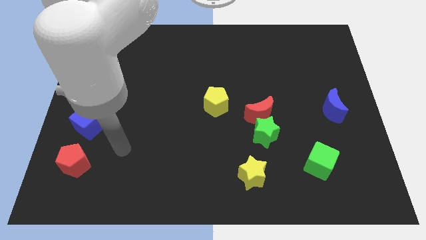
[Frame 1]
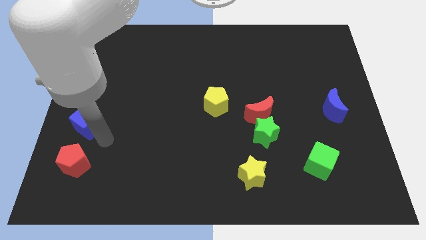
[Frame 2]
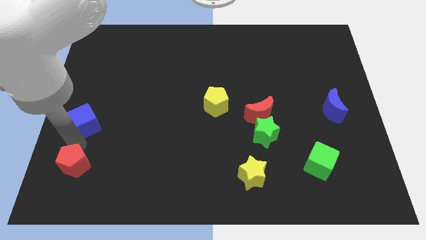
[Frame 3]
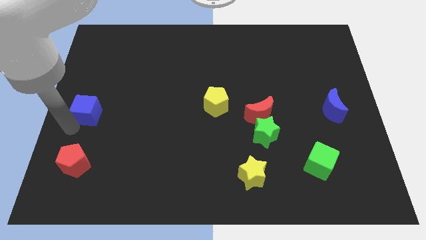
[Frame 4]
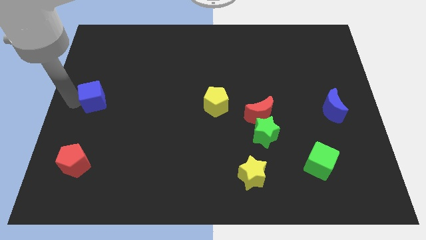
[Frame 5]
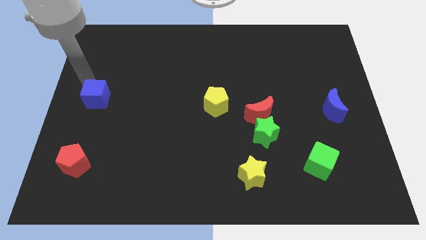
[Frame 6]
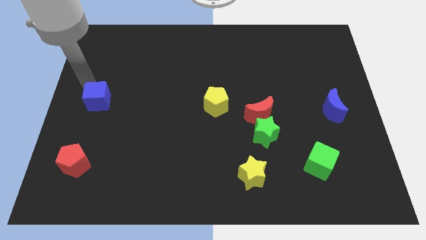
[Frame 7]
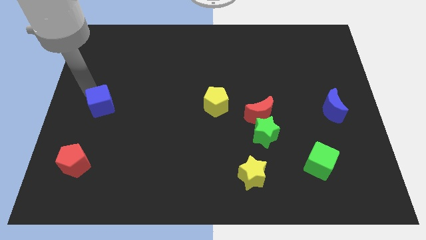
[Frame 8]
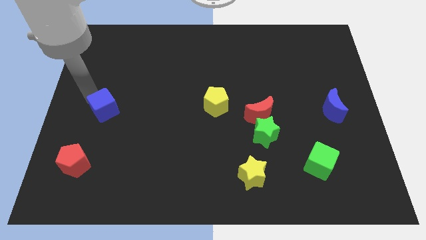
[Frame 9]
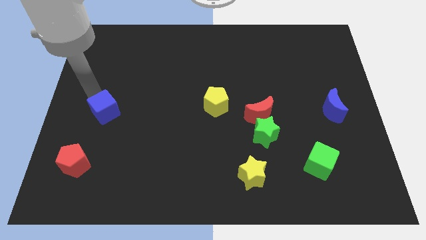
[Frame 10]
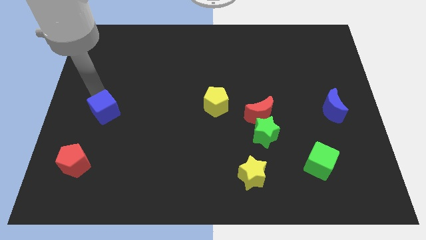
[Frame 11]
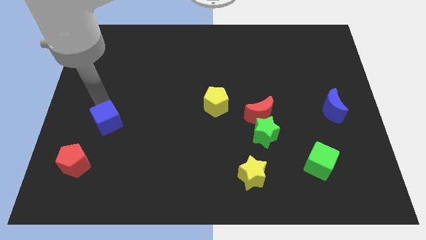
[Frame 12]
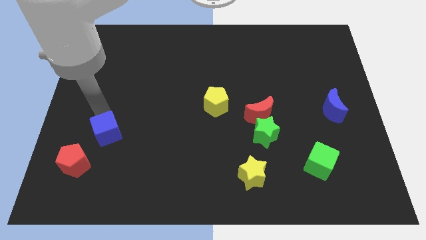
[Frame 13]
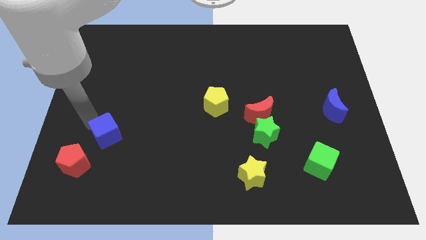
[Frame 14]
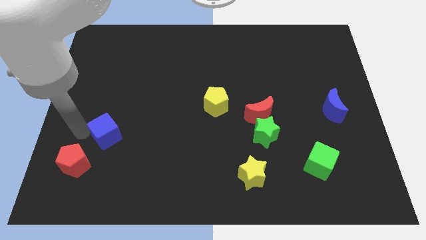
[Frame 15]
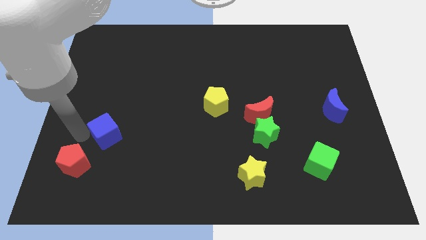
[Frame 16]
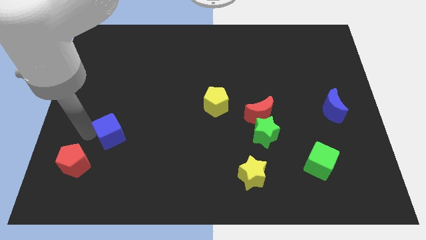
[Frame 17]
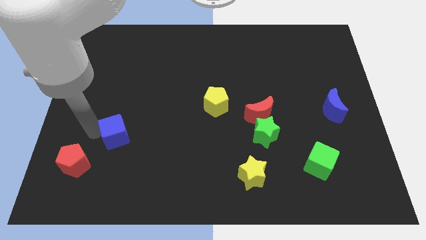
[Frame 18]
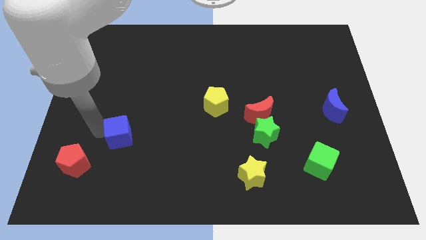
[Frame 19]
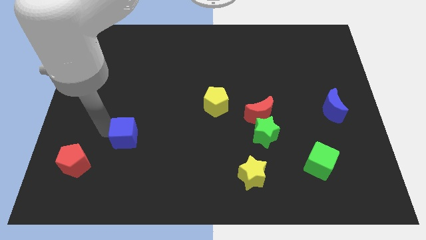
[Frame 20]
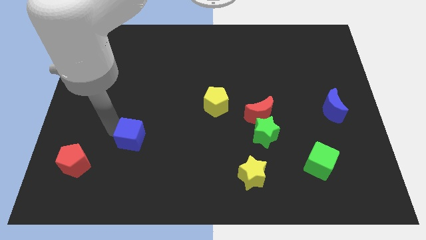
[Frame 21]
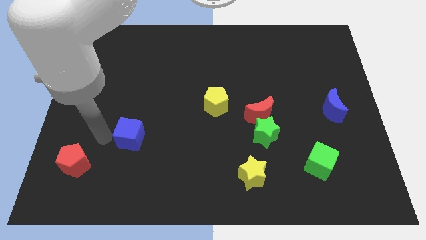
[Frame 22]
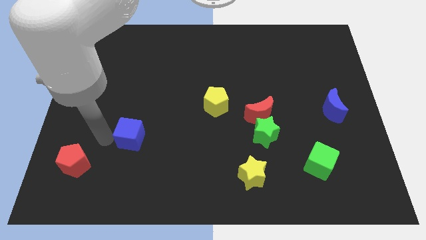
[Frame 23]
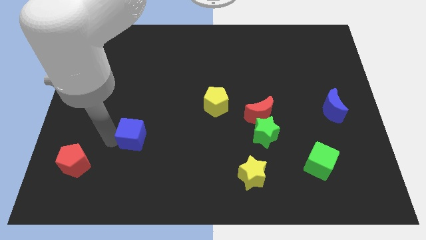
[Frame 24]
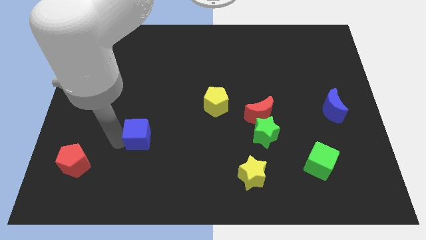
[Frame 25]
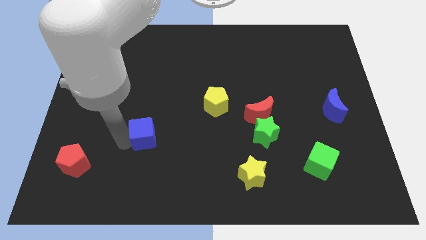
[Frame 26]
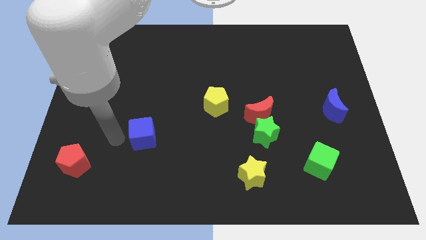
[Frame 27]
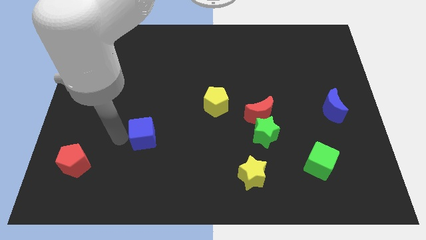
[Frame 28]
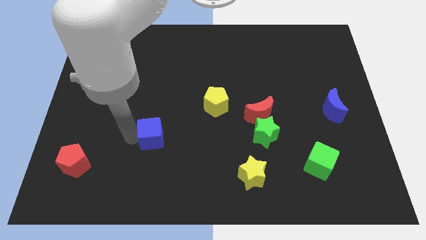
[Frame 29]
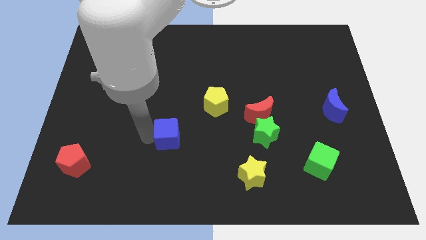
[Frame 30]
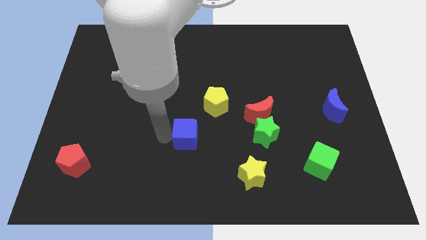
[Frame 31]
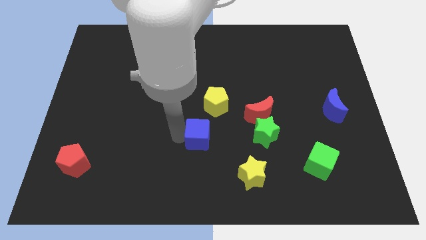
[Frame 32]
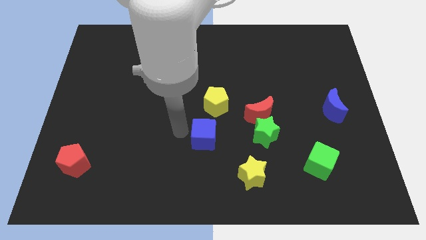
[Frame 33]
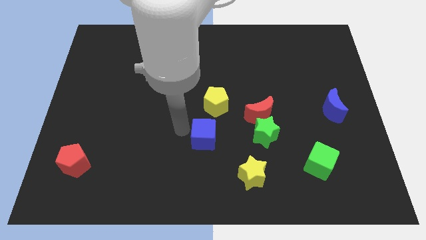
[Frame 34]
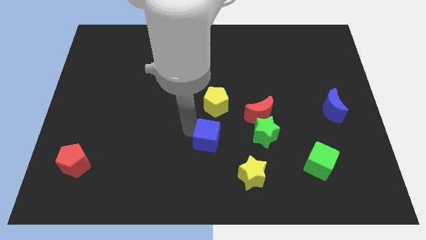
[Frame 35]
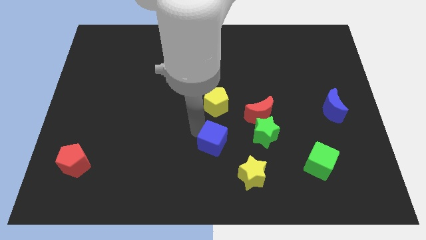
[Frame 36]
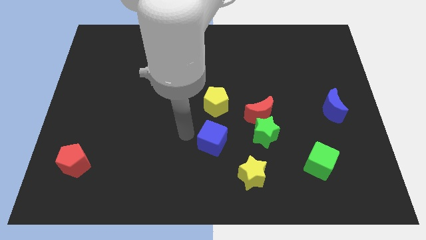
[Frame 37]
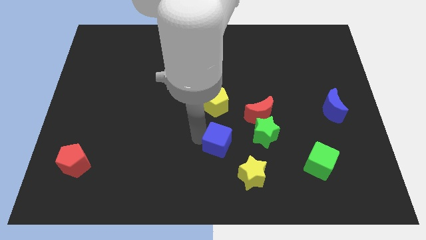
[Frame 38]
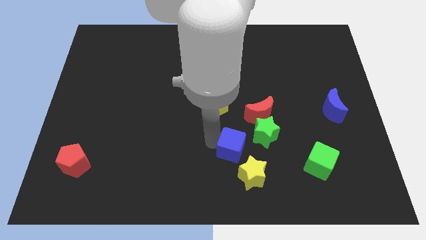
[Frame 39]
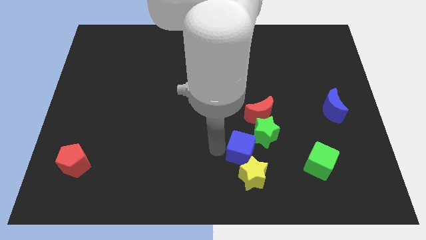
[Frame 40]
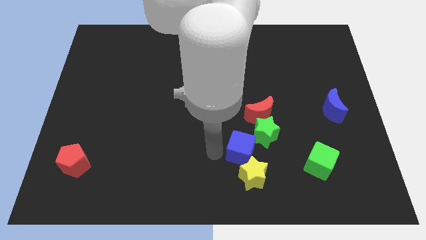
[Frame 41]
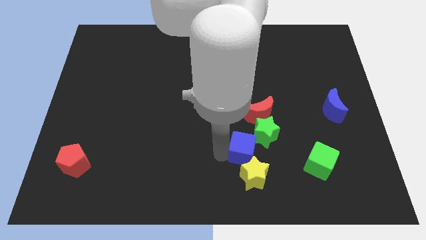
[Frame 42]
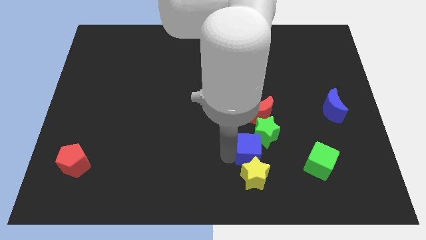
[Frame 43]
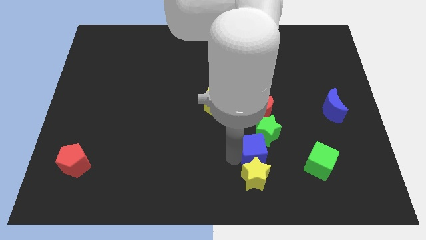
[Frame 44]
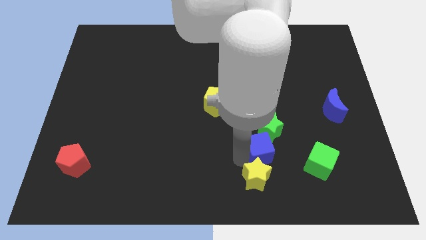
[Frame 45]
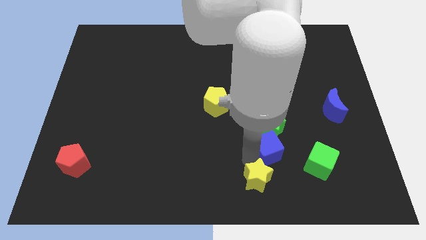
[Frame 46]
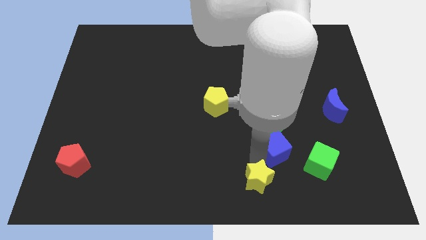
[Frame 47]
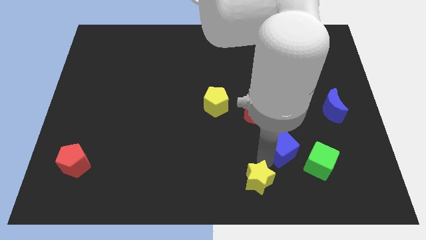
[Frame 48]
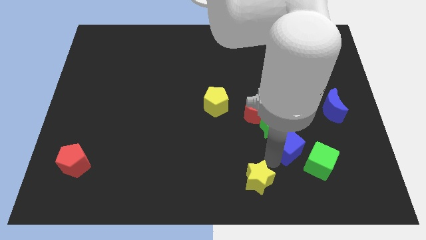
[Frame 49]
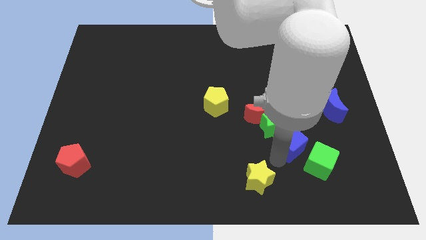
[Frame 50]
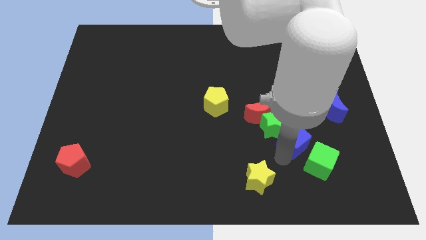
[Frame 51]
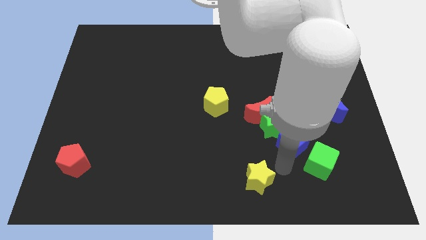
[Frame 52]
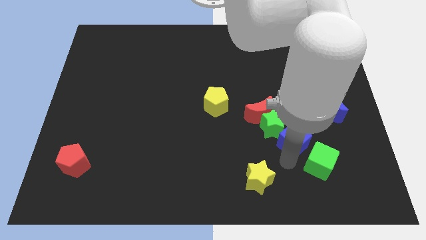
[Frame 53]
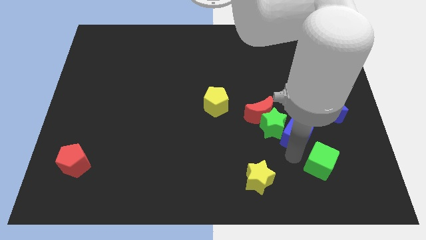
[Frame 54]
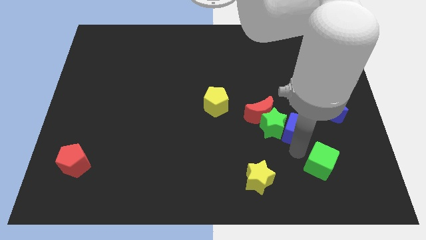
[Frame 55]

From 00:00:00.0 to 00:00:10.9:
push the blue cube to the right side of the red moon

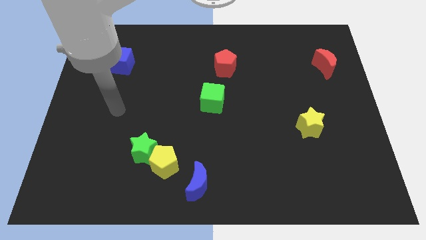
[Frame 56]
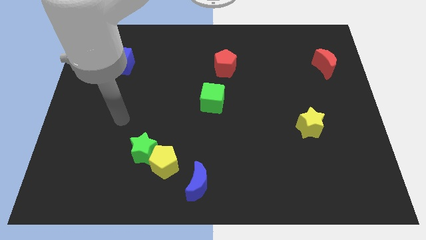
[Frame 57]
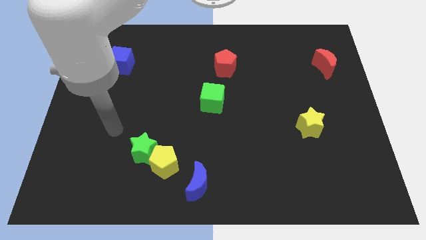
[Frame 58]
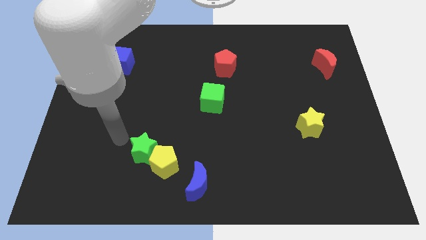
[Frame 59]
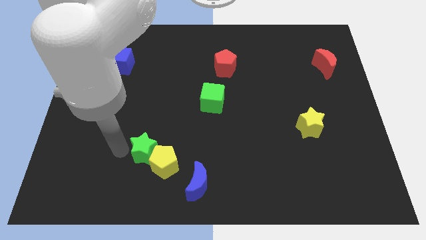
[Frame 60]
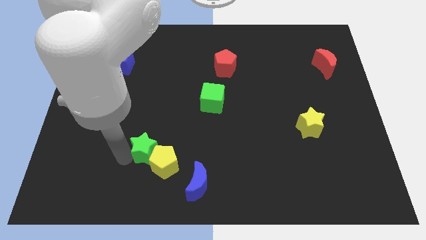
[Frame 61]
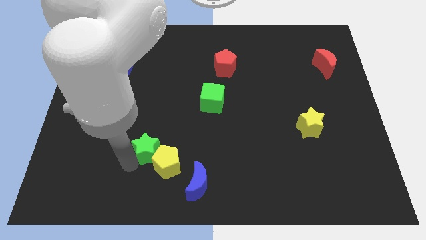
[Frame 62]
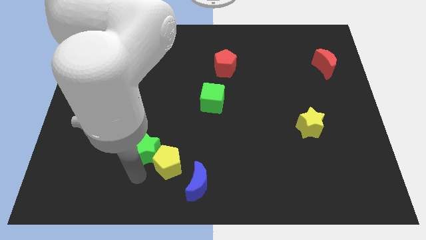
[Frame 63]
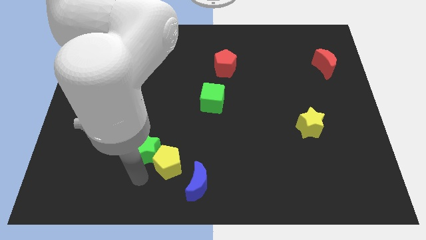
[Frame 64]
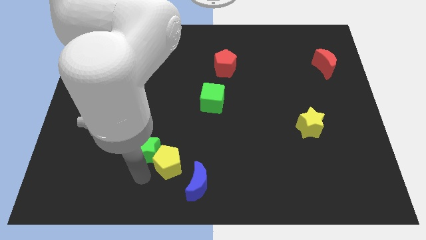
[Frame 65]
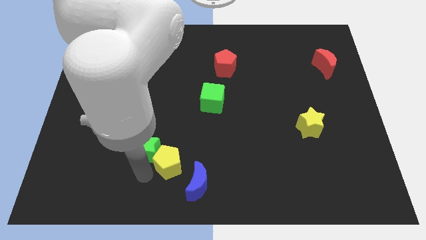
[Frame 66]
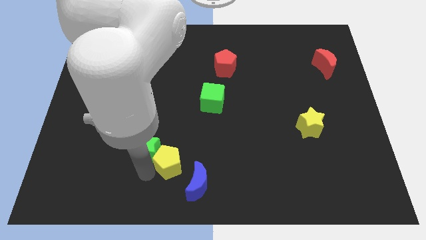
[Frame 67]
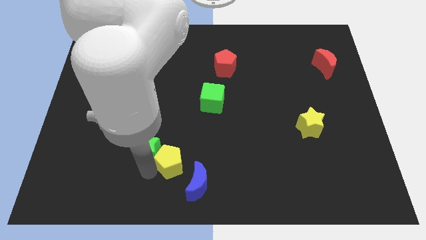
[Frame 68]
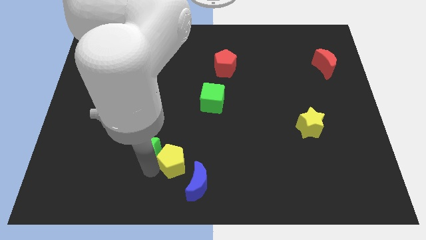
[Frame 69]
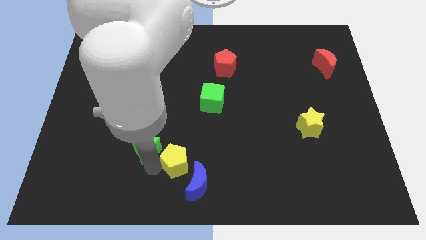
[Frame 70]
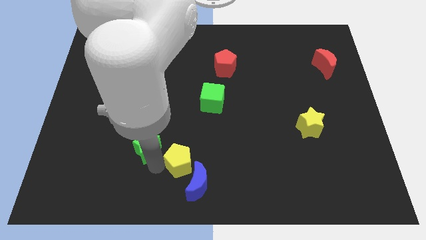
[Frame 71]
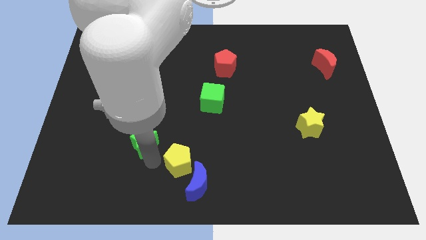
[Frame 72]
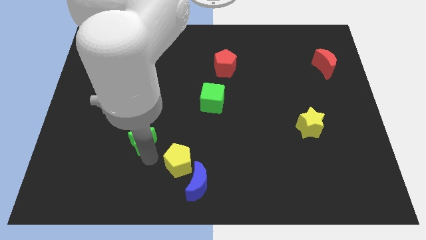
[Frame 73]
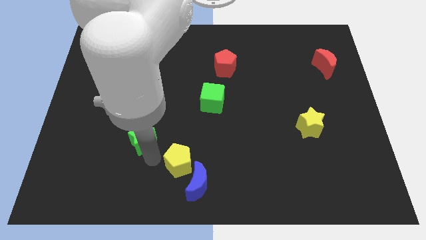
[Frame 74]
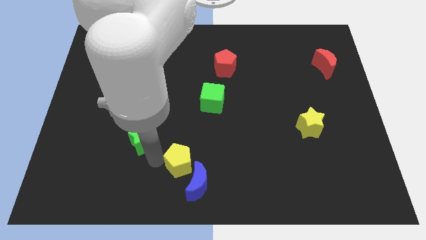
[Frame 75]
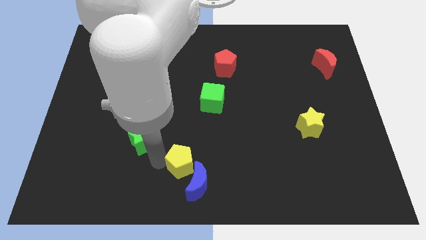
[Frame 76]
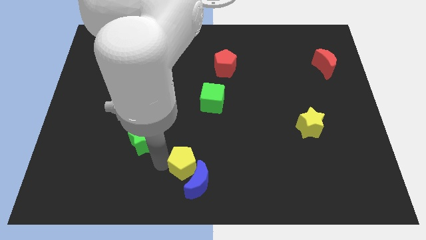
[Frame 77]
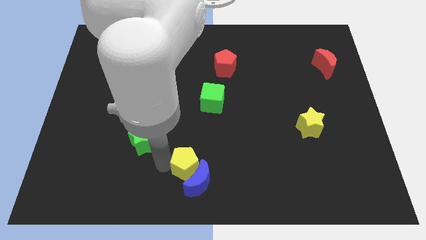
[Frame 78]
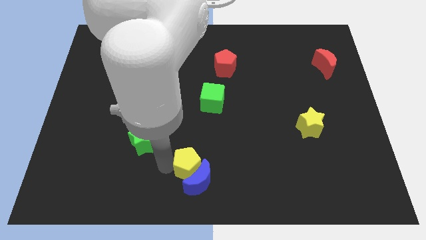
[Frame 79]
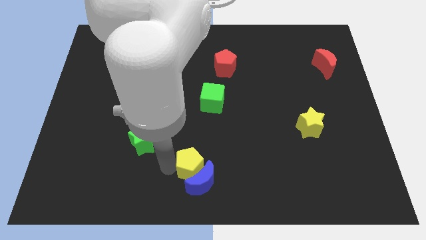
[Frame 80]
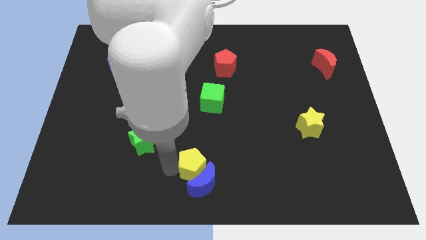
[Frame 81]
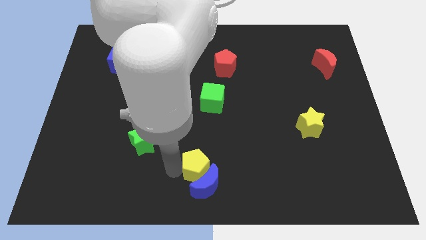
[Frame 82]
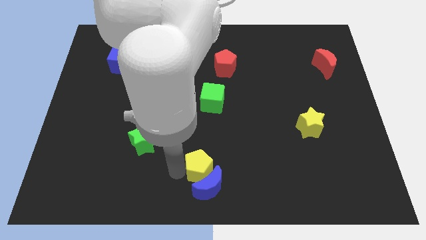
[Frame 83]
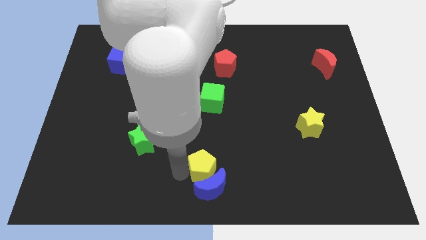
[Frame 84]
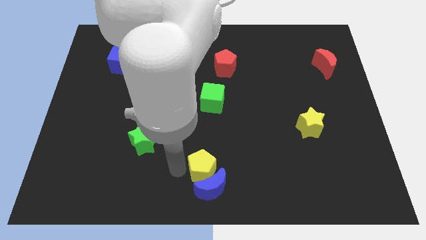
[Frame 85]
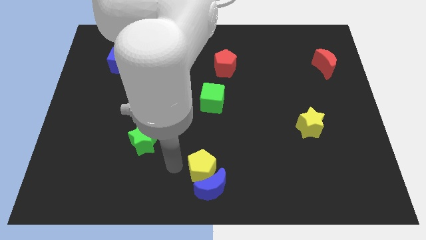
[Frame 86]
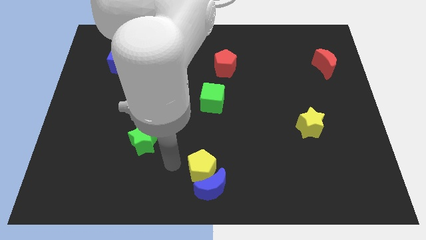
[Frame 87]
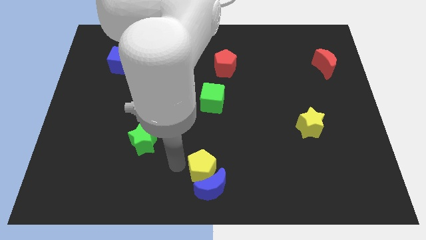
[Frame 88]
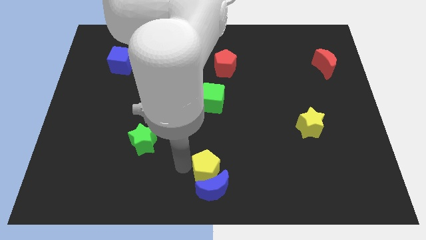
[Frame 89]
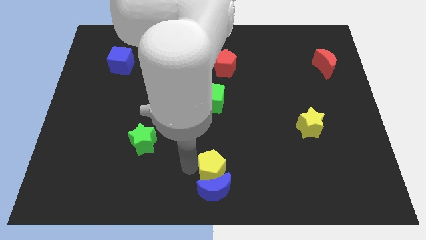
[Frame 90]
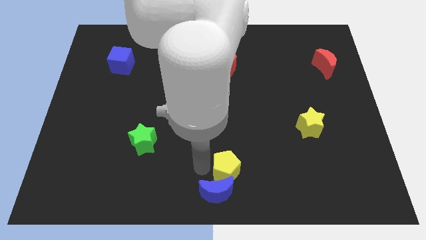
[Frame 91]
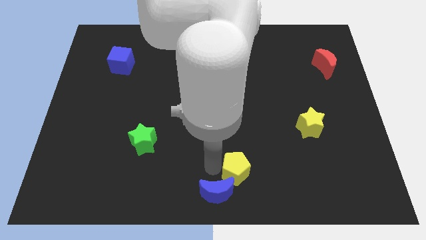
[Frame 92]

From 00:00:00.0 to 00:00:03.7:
put the yellow pentagon to the right side of the blue moon
